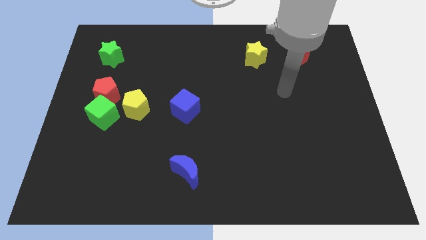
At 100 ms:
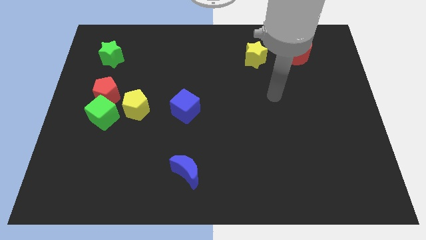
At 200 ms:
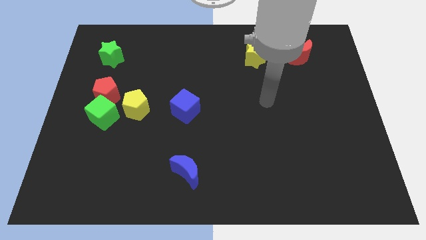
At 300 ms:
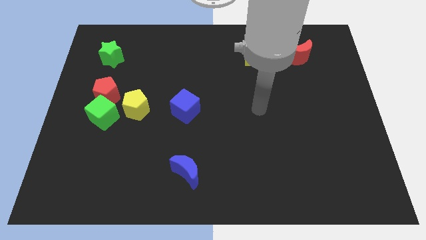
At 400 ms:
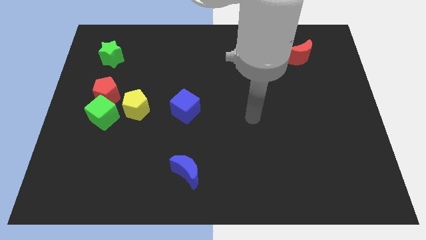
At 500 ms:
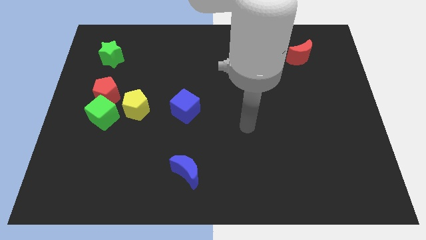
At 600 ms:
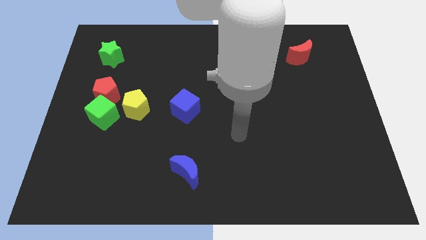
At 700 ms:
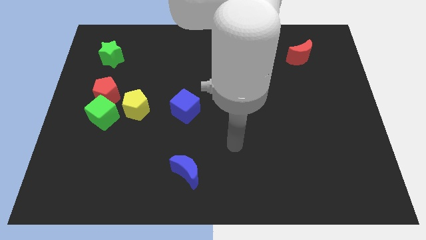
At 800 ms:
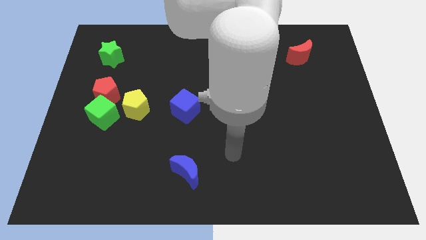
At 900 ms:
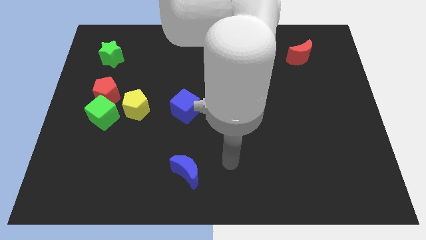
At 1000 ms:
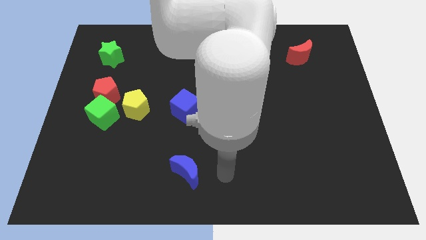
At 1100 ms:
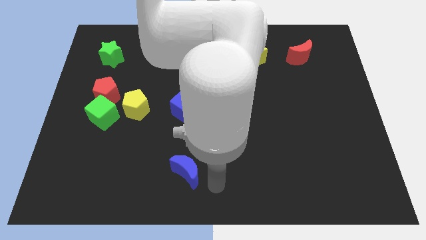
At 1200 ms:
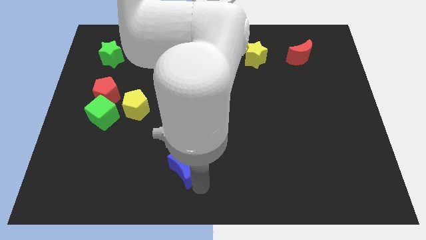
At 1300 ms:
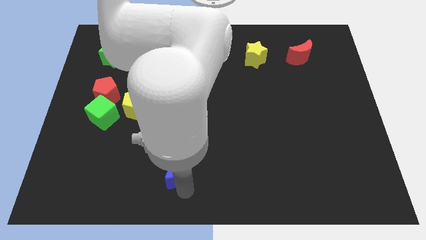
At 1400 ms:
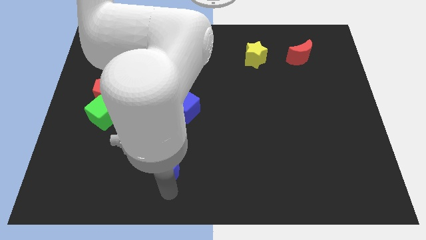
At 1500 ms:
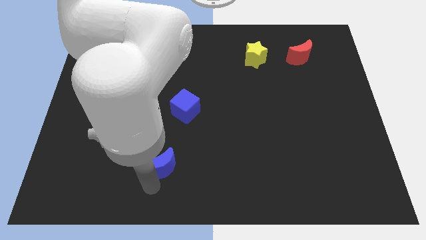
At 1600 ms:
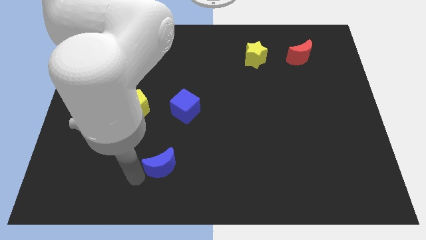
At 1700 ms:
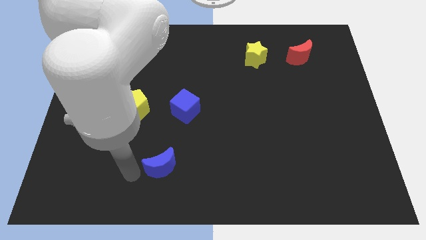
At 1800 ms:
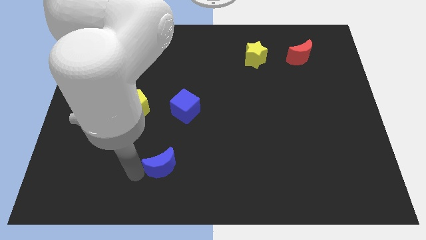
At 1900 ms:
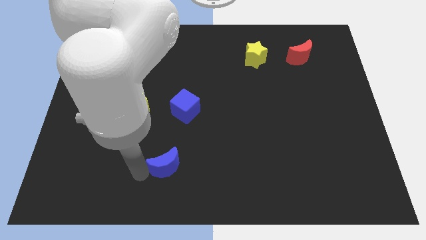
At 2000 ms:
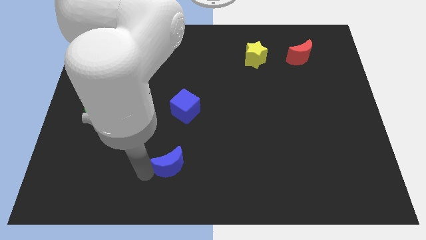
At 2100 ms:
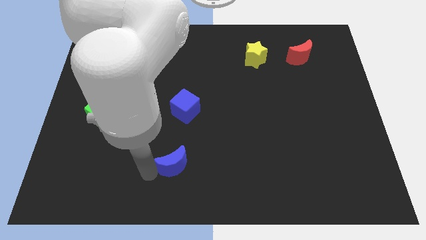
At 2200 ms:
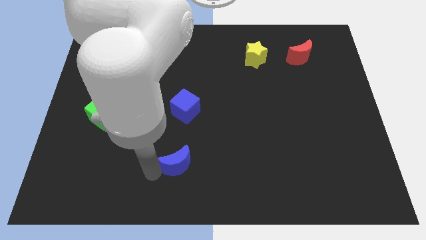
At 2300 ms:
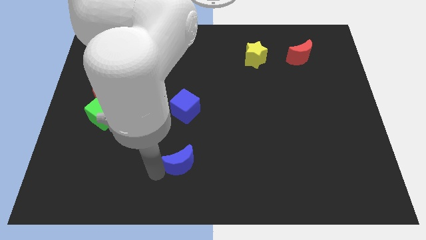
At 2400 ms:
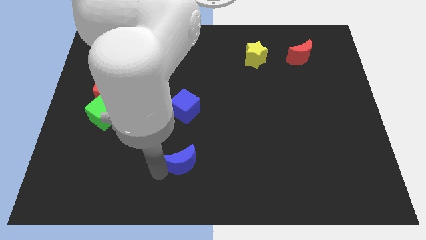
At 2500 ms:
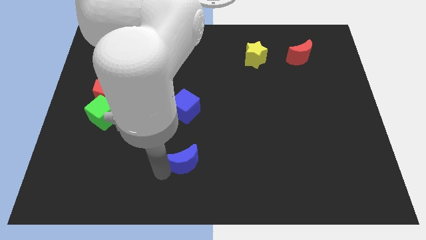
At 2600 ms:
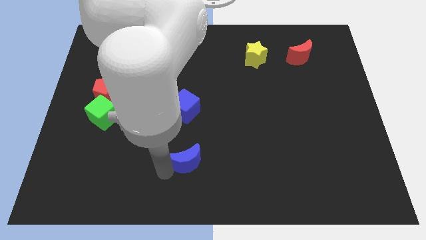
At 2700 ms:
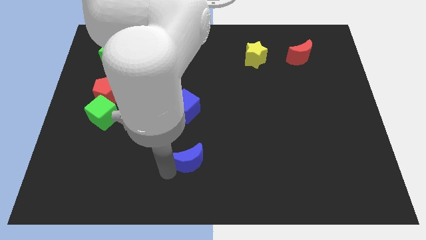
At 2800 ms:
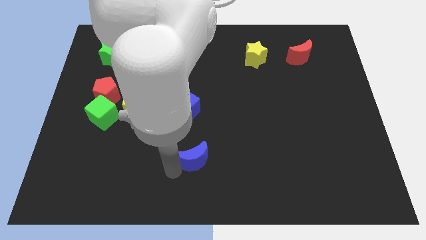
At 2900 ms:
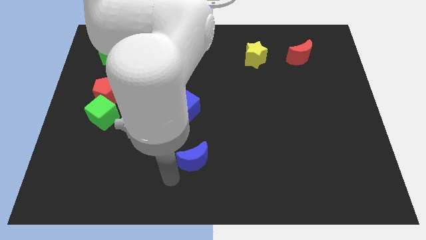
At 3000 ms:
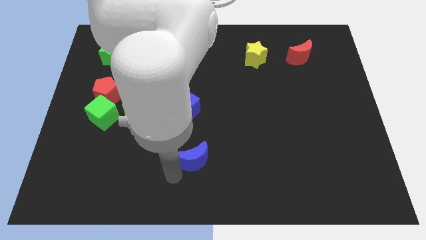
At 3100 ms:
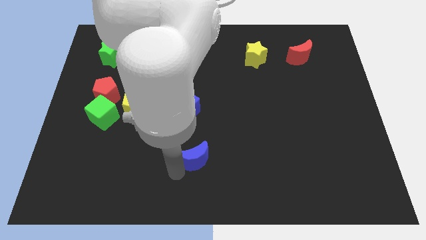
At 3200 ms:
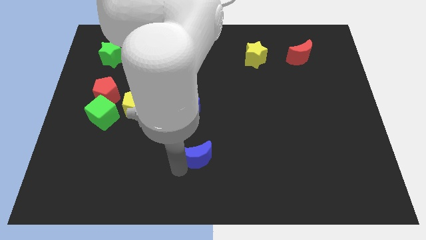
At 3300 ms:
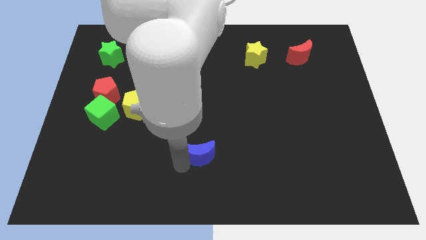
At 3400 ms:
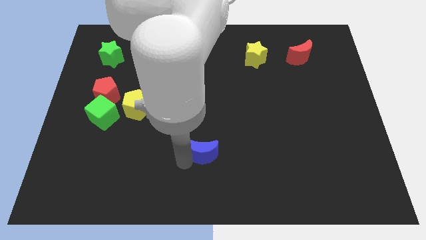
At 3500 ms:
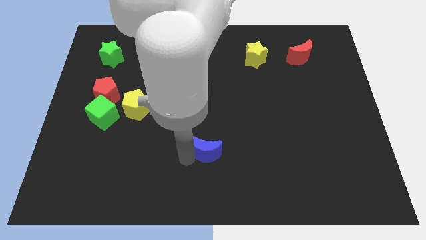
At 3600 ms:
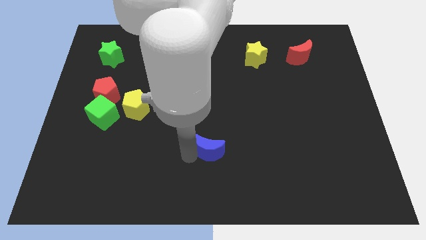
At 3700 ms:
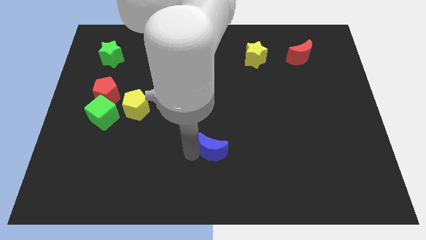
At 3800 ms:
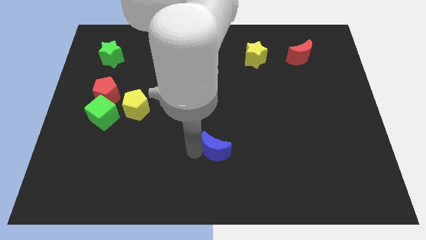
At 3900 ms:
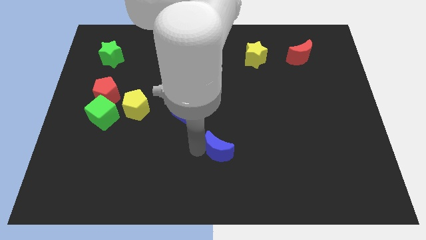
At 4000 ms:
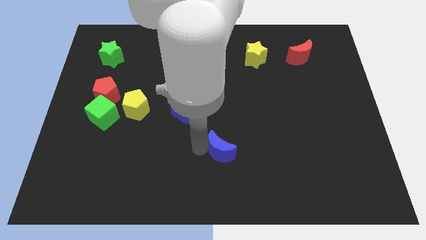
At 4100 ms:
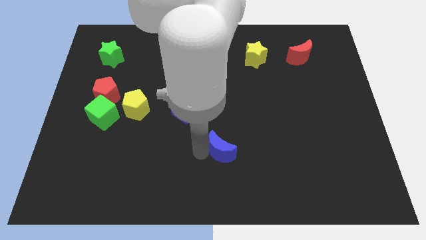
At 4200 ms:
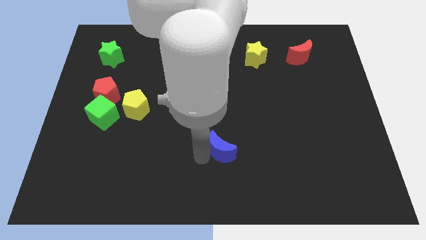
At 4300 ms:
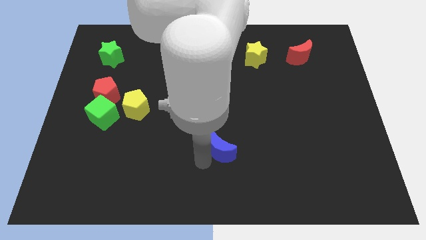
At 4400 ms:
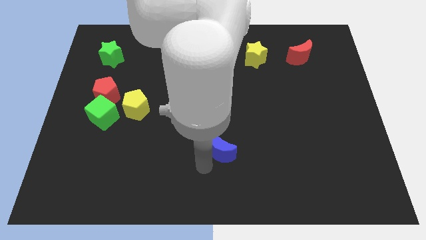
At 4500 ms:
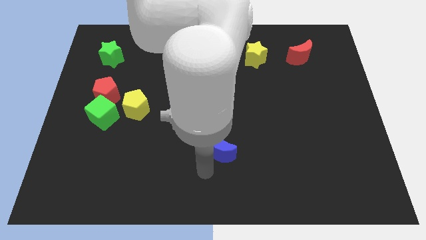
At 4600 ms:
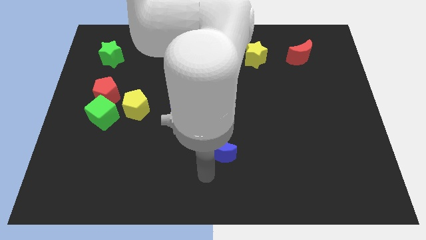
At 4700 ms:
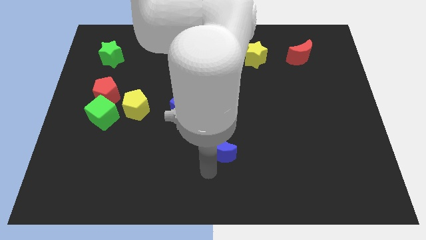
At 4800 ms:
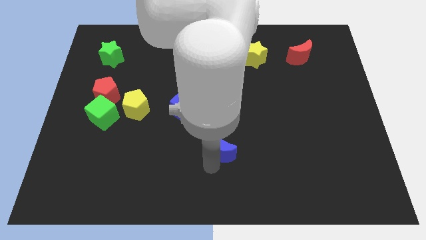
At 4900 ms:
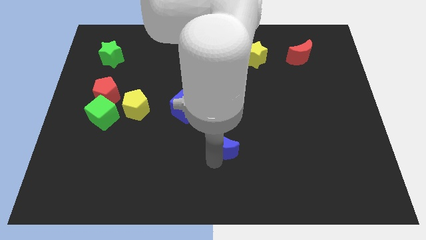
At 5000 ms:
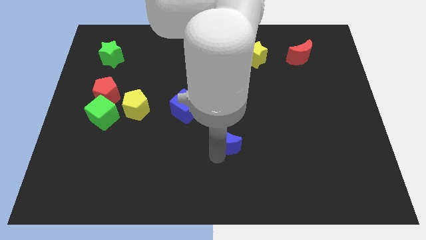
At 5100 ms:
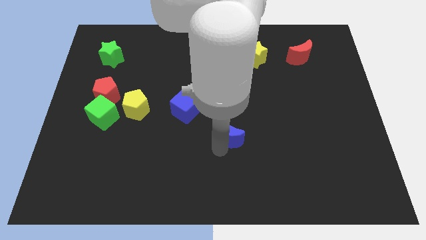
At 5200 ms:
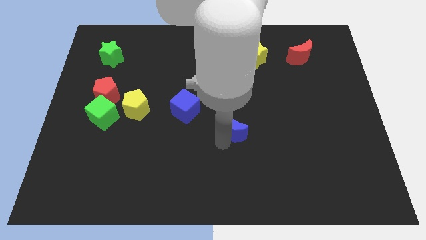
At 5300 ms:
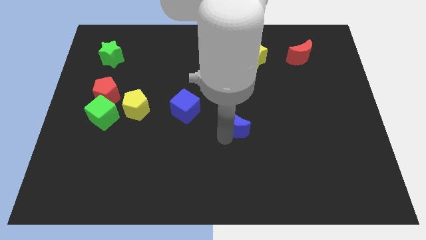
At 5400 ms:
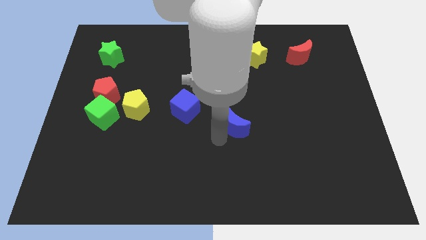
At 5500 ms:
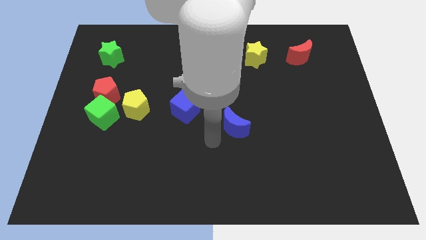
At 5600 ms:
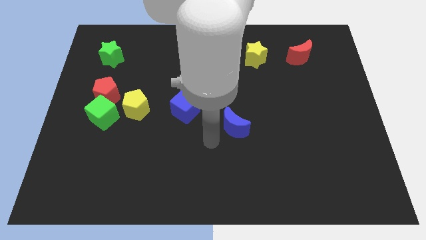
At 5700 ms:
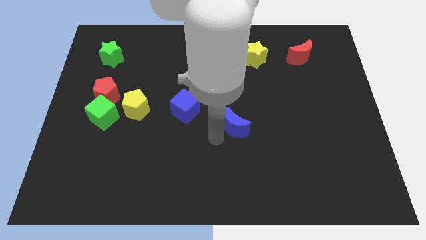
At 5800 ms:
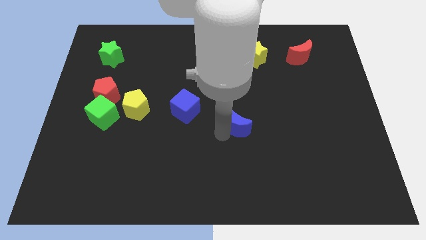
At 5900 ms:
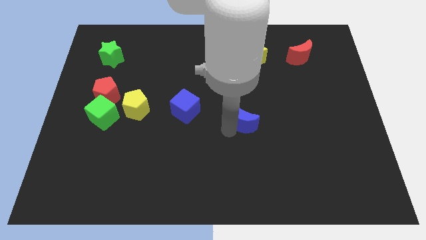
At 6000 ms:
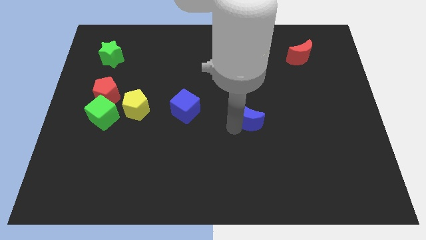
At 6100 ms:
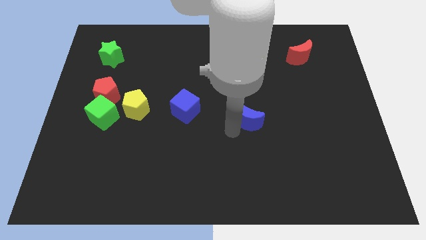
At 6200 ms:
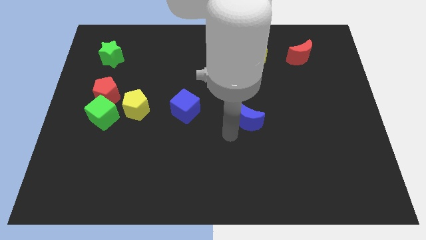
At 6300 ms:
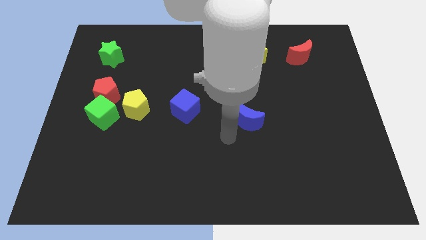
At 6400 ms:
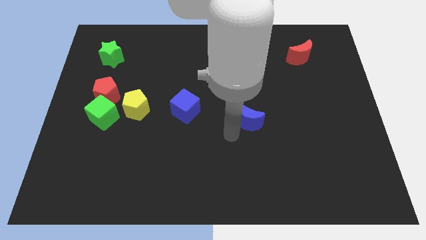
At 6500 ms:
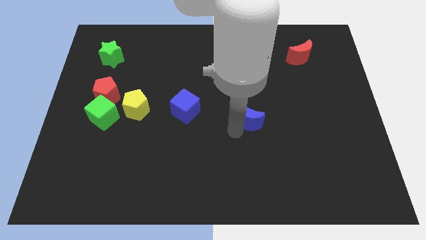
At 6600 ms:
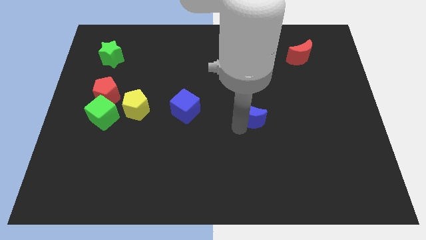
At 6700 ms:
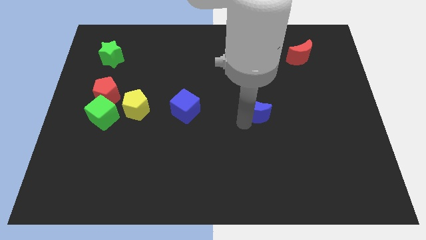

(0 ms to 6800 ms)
slide the blue moon diagonally up and to the right

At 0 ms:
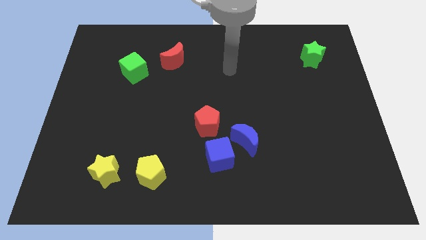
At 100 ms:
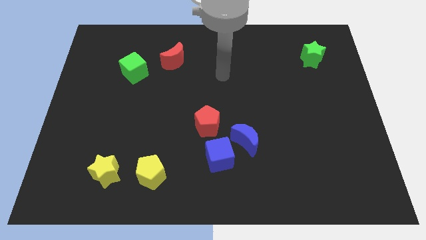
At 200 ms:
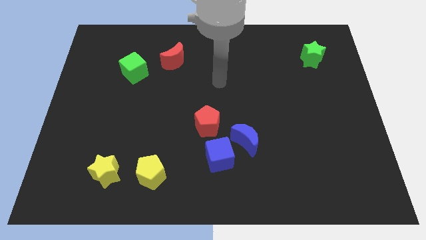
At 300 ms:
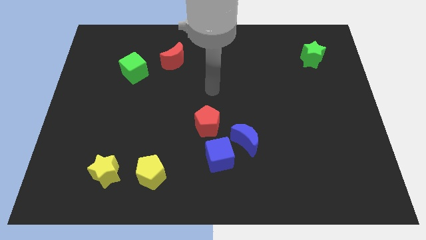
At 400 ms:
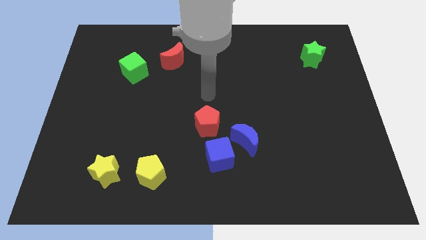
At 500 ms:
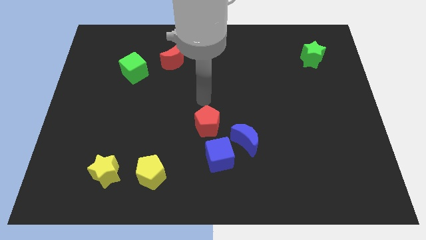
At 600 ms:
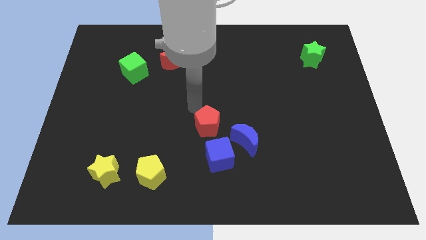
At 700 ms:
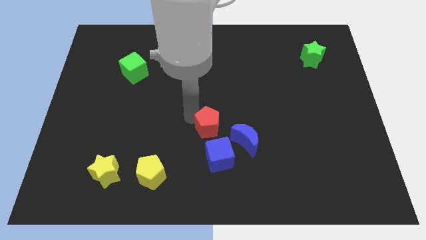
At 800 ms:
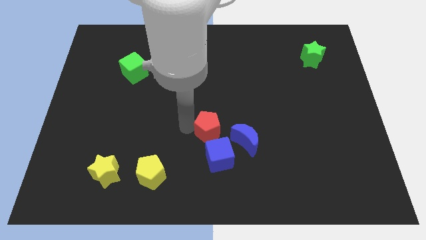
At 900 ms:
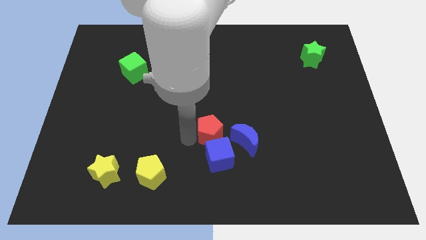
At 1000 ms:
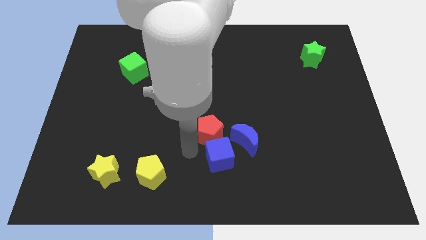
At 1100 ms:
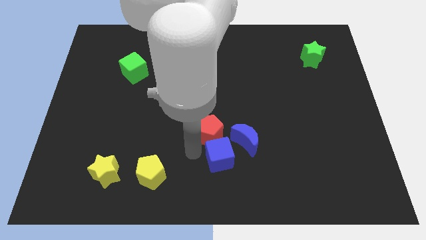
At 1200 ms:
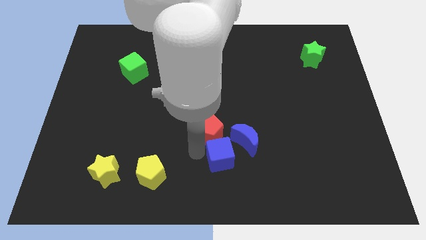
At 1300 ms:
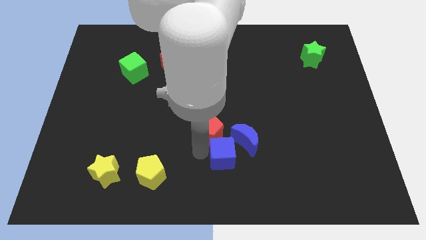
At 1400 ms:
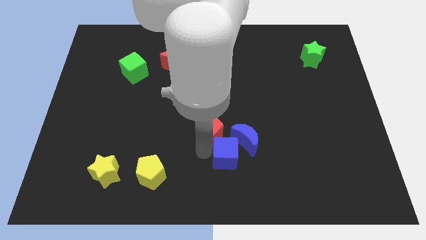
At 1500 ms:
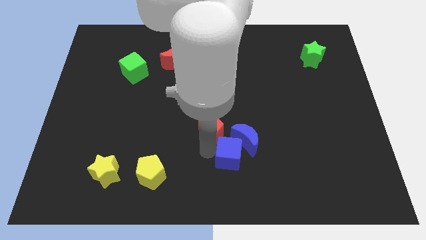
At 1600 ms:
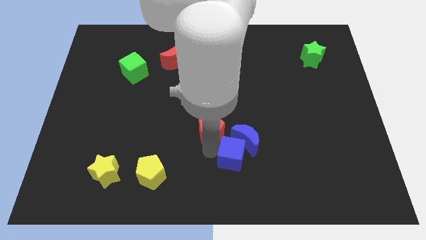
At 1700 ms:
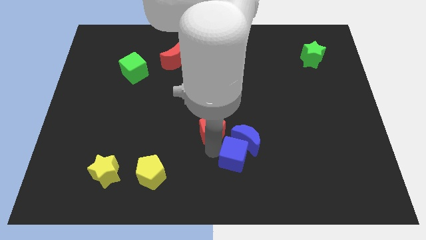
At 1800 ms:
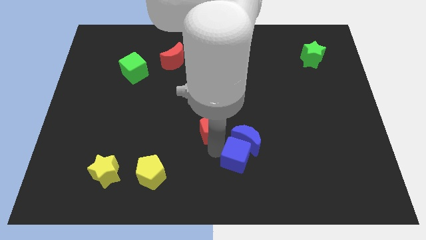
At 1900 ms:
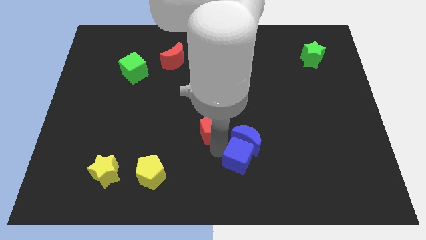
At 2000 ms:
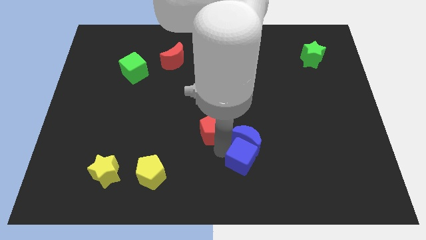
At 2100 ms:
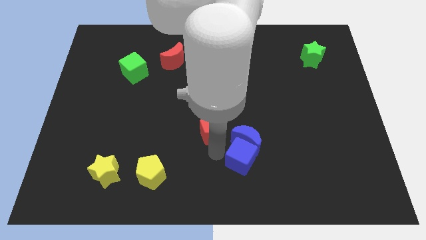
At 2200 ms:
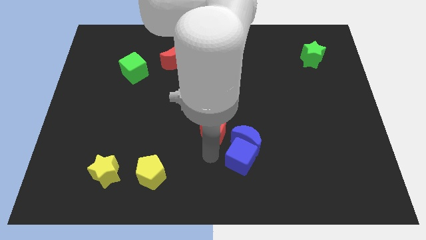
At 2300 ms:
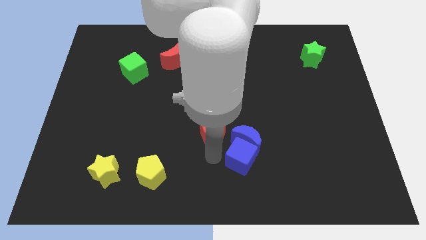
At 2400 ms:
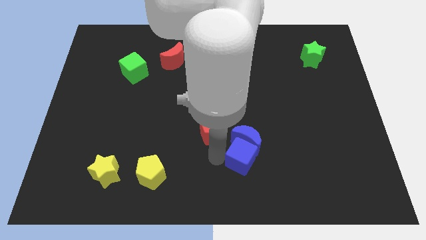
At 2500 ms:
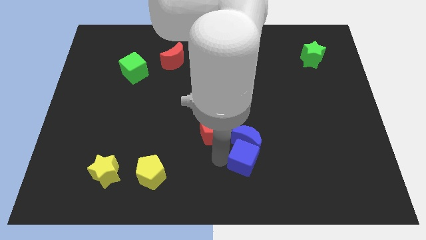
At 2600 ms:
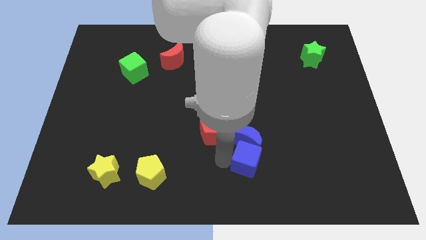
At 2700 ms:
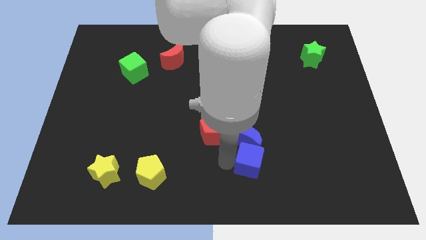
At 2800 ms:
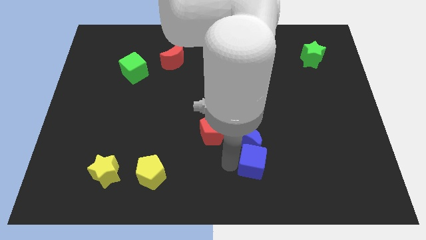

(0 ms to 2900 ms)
move the blue cube to the right somewhat
